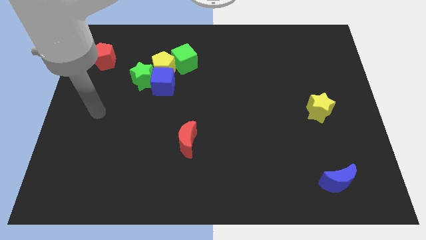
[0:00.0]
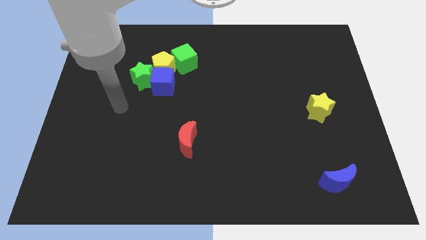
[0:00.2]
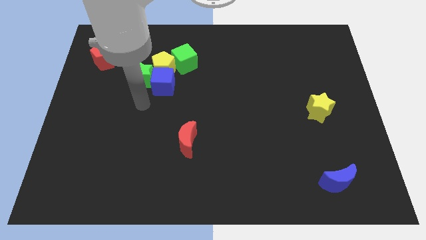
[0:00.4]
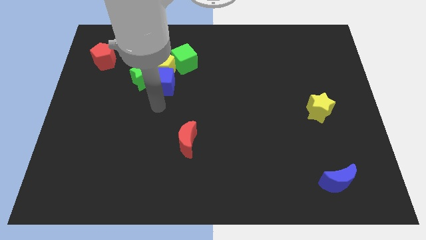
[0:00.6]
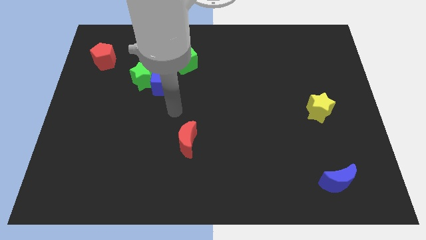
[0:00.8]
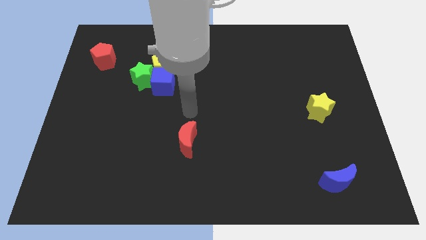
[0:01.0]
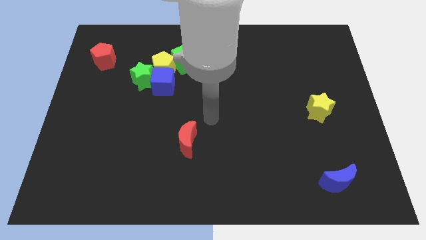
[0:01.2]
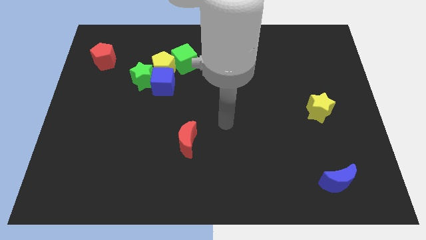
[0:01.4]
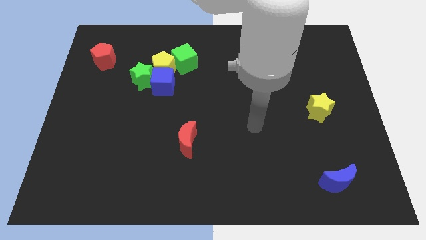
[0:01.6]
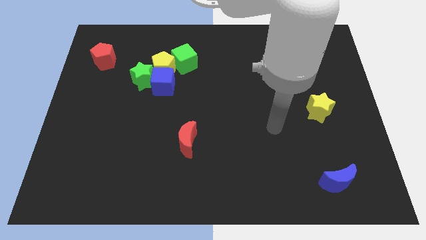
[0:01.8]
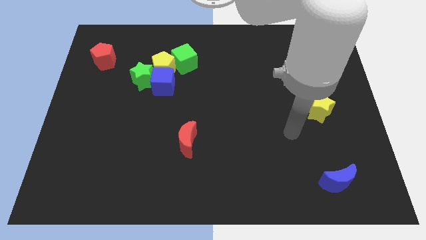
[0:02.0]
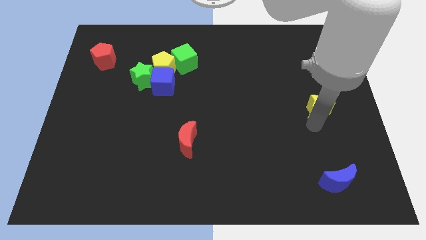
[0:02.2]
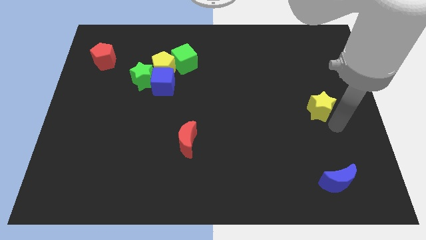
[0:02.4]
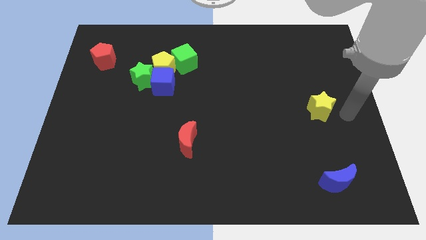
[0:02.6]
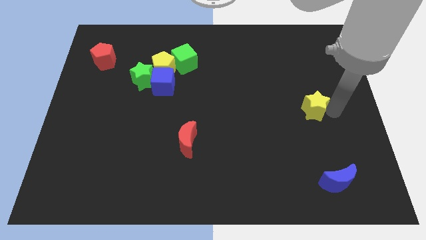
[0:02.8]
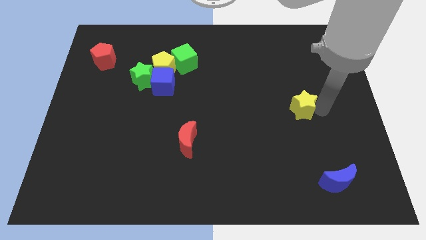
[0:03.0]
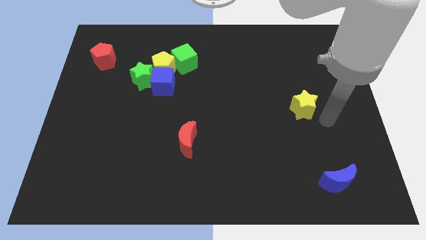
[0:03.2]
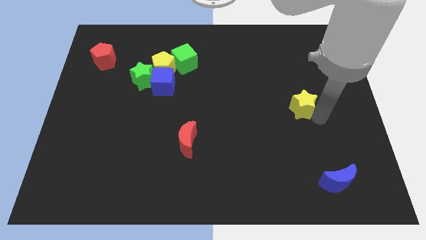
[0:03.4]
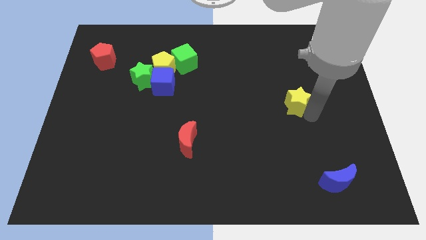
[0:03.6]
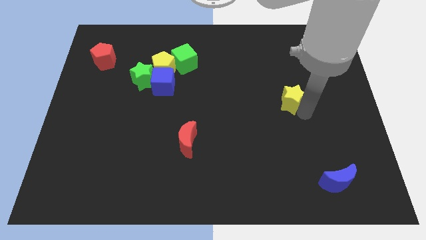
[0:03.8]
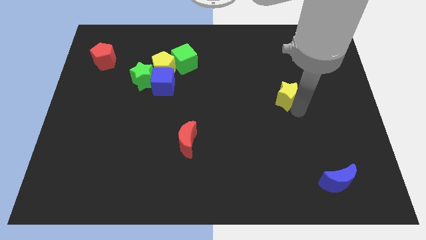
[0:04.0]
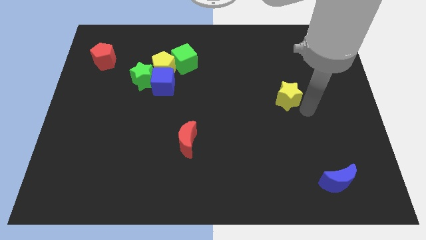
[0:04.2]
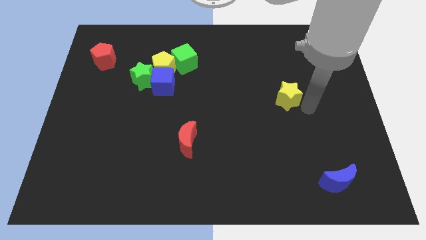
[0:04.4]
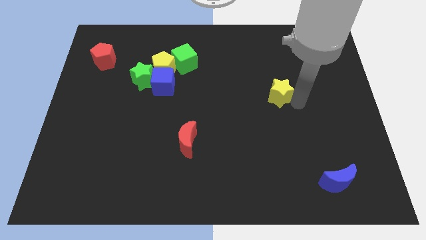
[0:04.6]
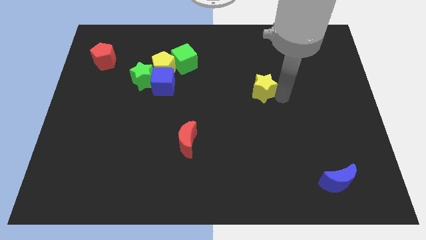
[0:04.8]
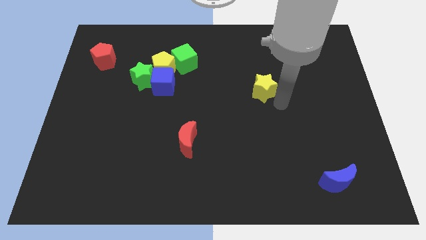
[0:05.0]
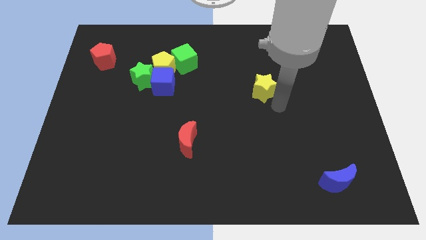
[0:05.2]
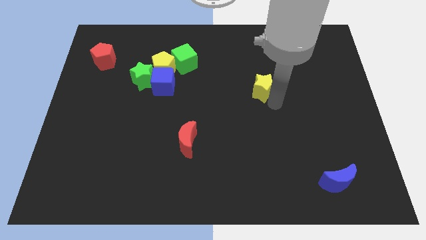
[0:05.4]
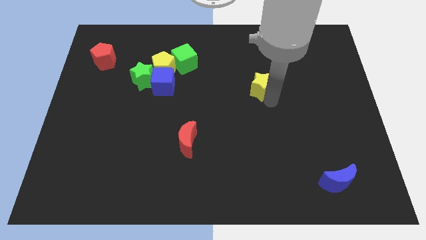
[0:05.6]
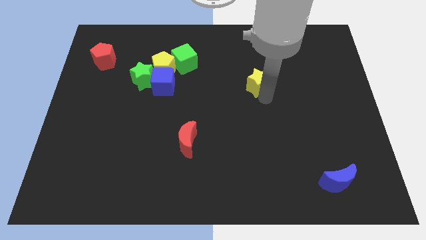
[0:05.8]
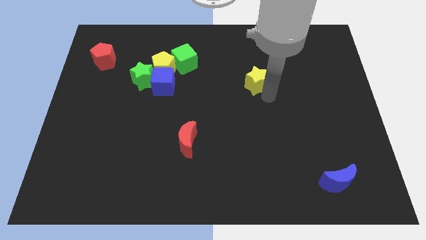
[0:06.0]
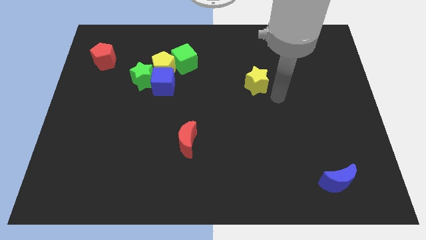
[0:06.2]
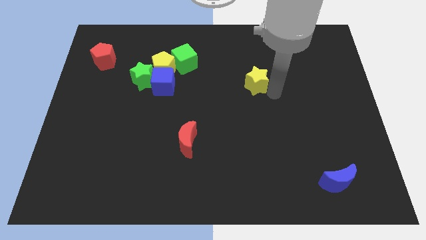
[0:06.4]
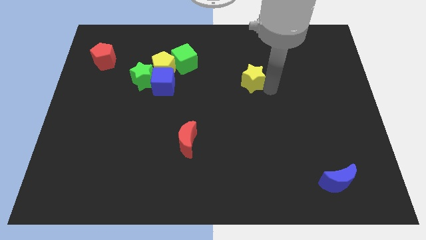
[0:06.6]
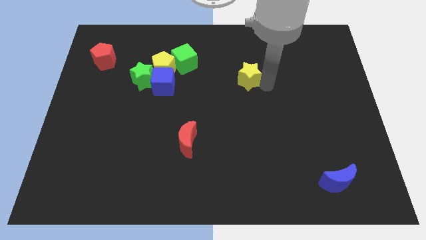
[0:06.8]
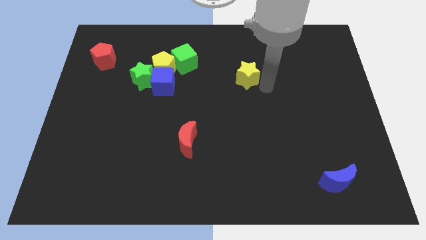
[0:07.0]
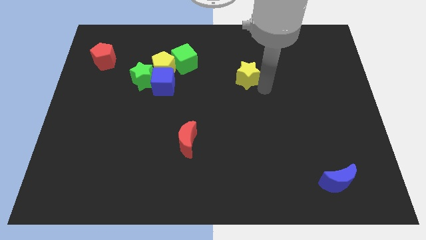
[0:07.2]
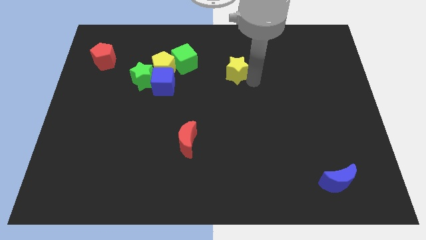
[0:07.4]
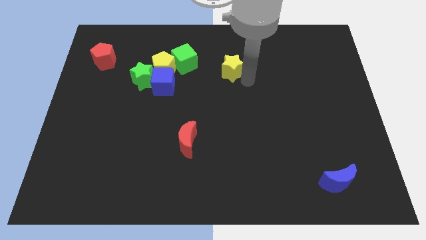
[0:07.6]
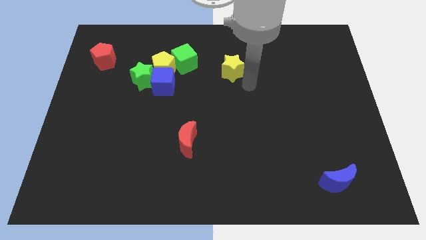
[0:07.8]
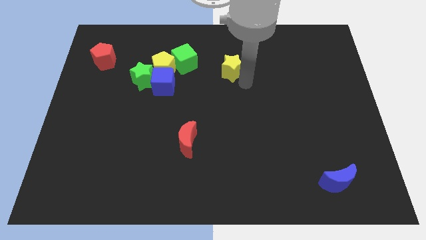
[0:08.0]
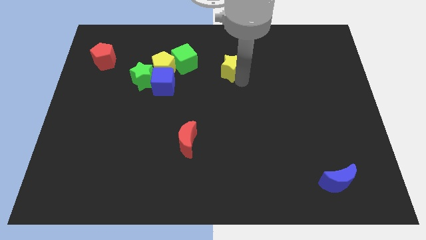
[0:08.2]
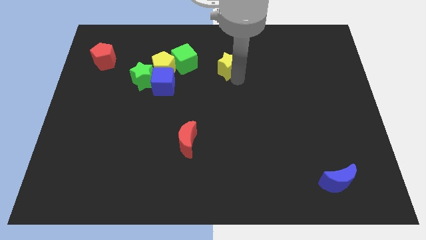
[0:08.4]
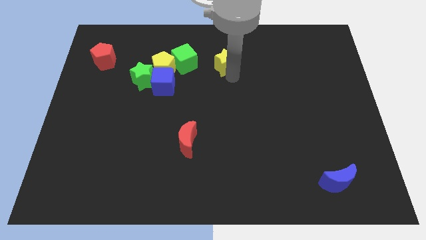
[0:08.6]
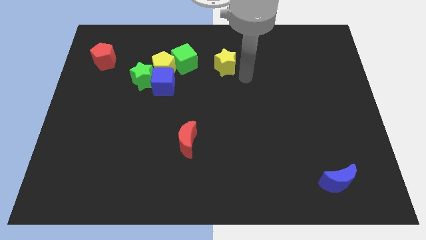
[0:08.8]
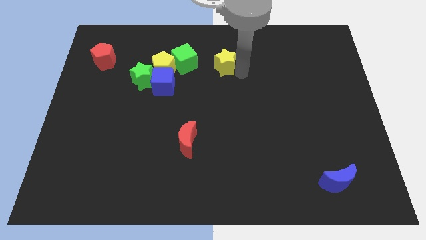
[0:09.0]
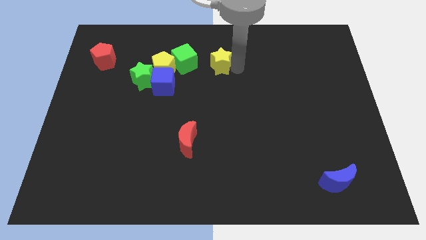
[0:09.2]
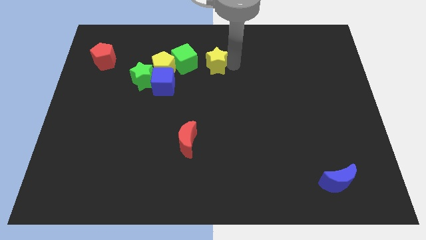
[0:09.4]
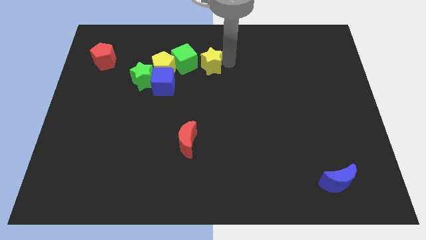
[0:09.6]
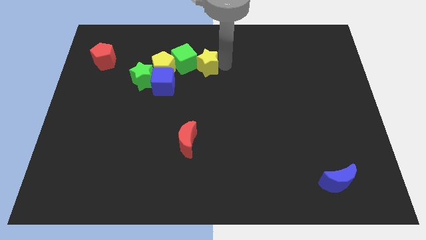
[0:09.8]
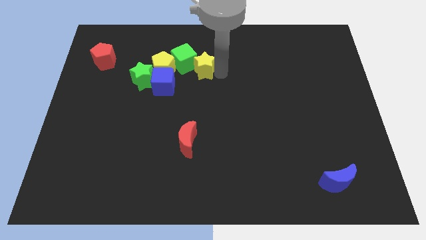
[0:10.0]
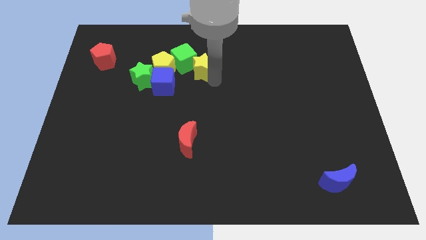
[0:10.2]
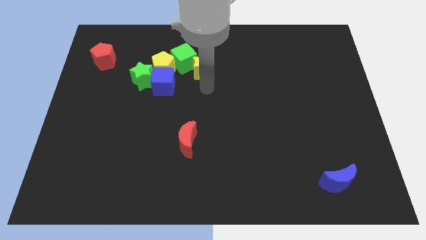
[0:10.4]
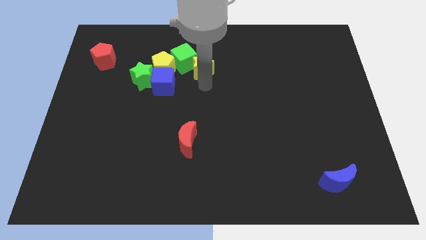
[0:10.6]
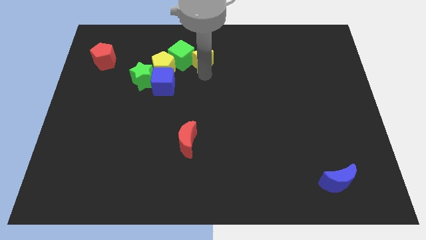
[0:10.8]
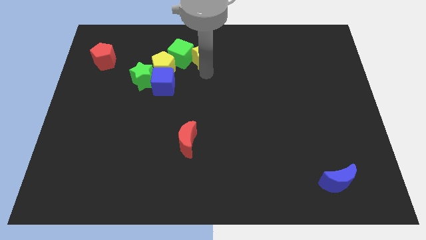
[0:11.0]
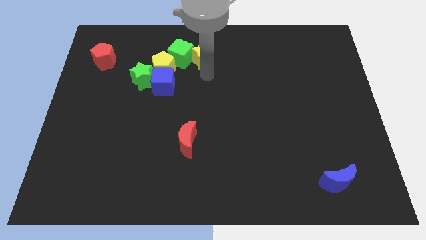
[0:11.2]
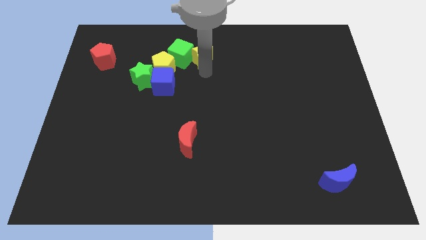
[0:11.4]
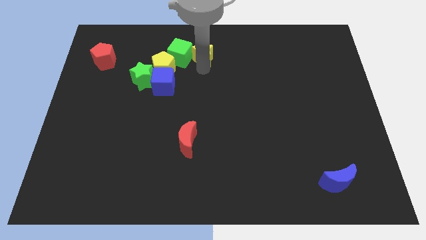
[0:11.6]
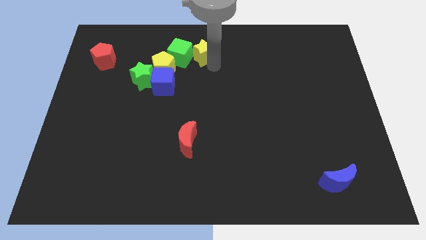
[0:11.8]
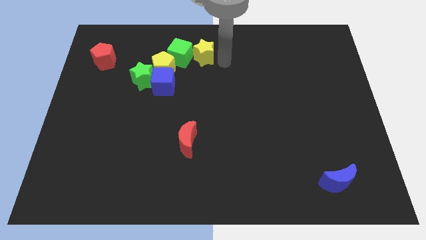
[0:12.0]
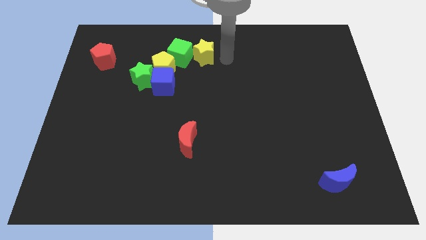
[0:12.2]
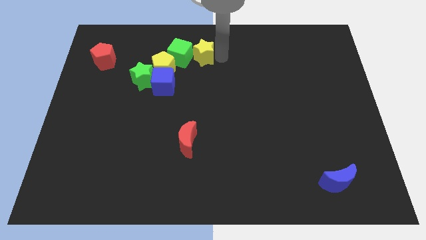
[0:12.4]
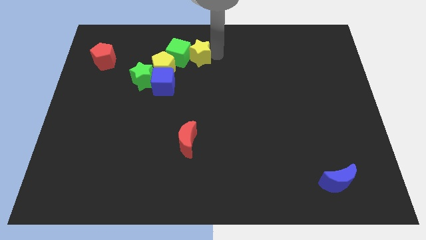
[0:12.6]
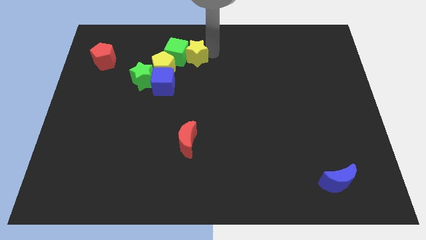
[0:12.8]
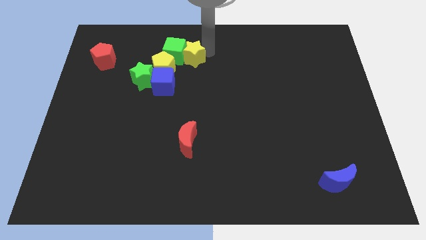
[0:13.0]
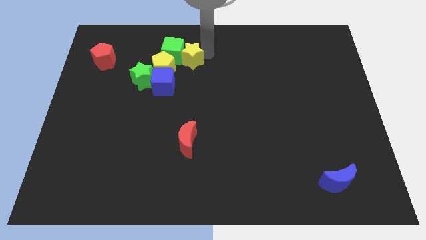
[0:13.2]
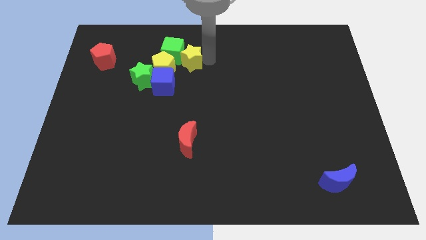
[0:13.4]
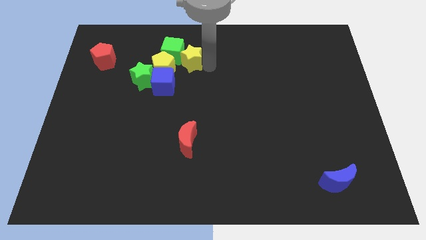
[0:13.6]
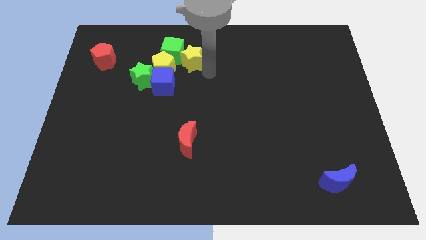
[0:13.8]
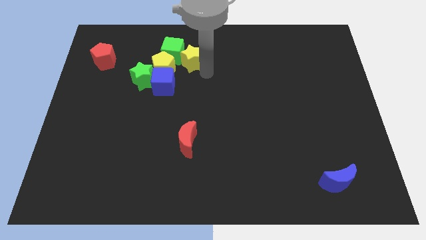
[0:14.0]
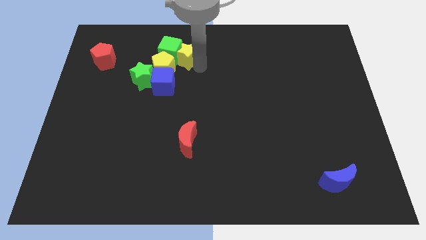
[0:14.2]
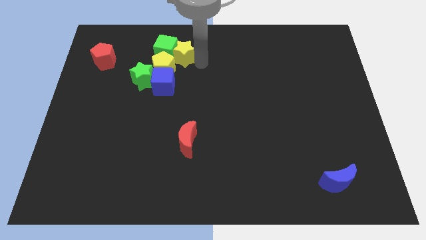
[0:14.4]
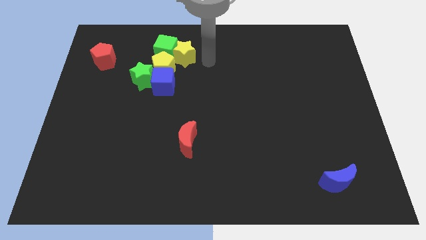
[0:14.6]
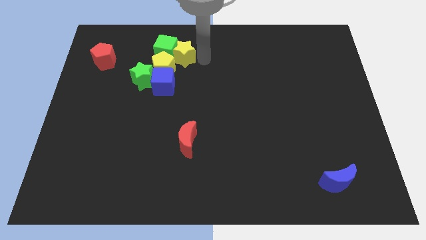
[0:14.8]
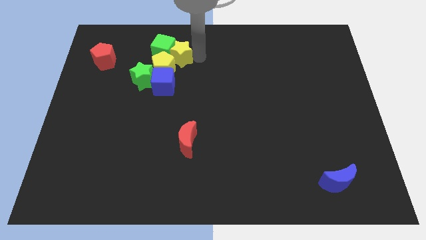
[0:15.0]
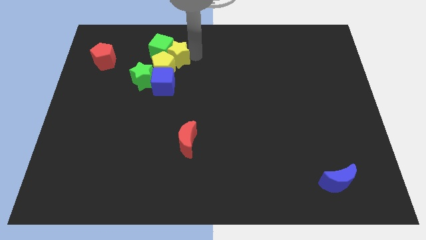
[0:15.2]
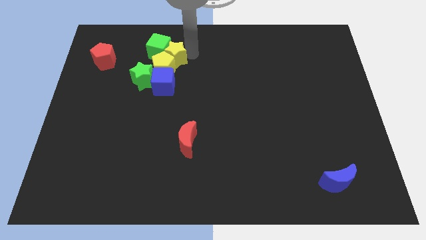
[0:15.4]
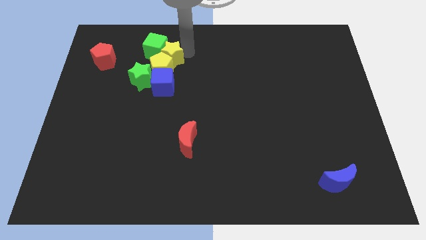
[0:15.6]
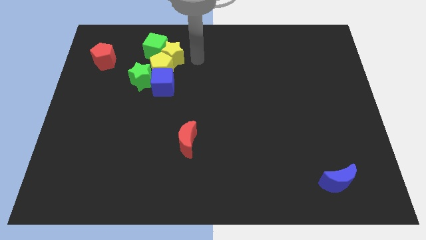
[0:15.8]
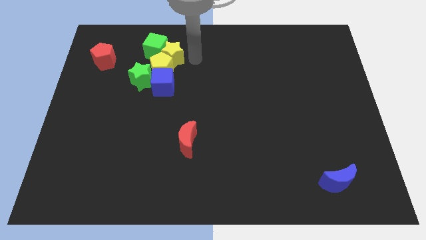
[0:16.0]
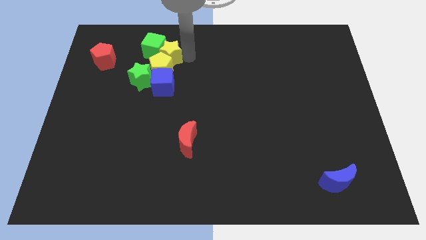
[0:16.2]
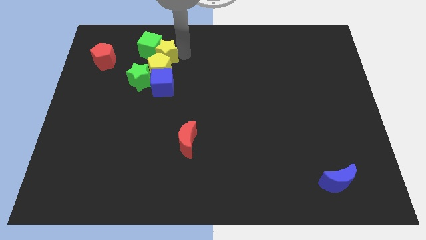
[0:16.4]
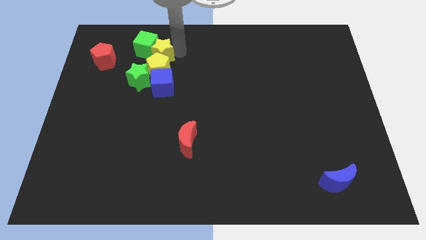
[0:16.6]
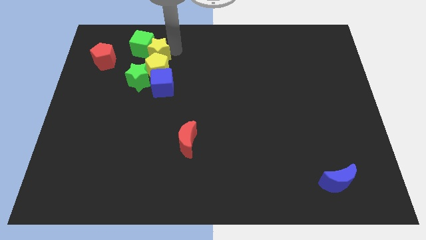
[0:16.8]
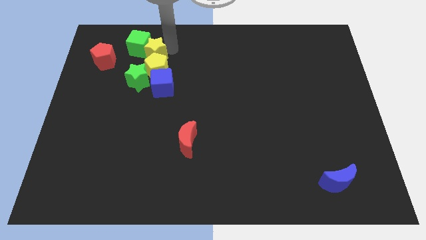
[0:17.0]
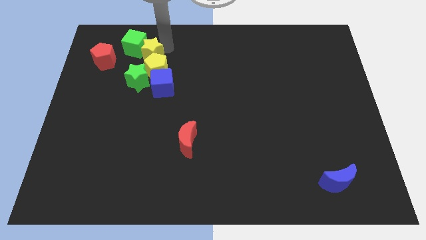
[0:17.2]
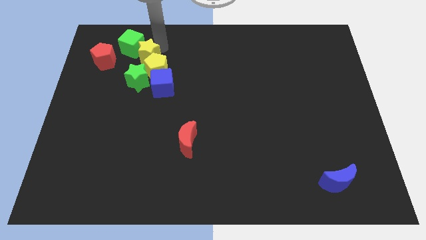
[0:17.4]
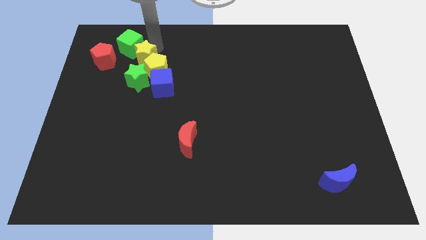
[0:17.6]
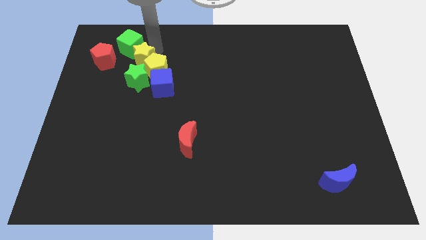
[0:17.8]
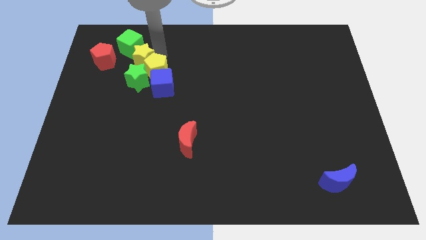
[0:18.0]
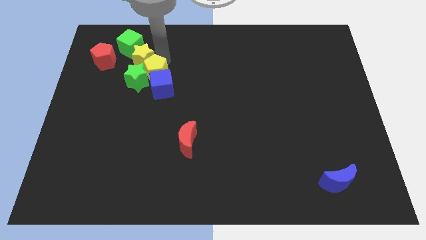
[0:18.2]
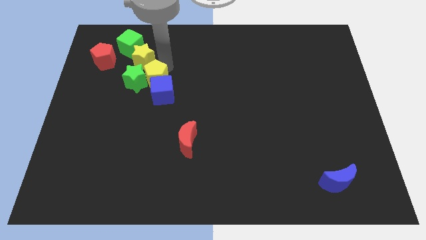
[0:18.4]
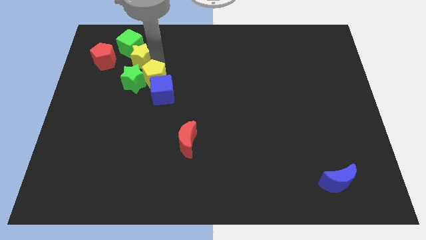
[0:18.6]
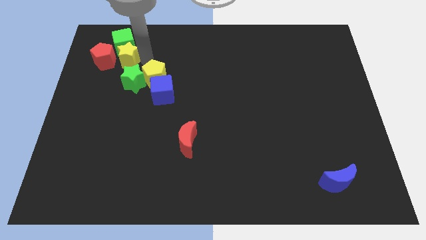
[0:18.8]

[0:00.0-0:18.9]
push the yellow star close to the red pentagon
